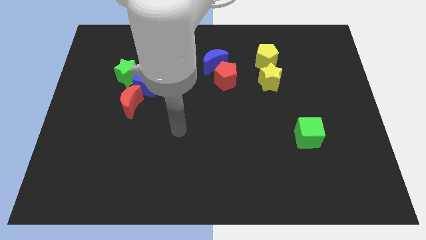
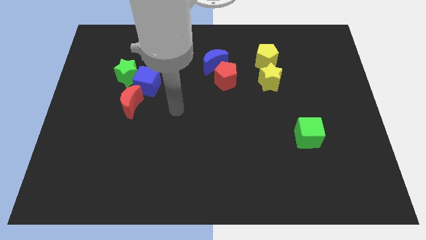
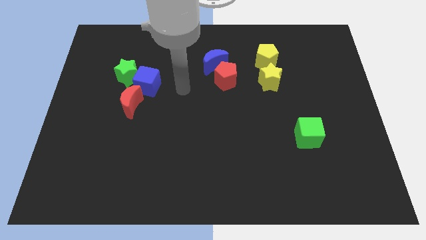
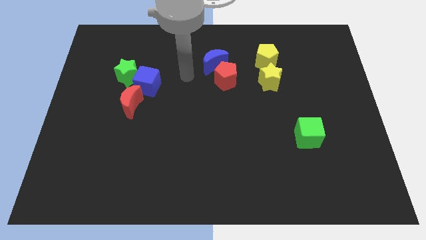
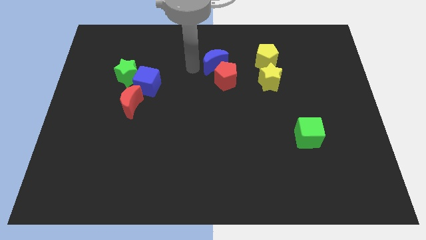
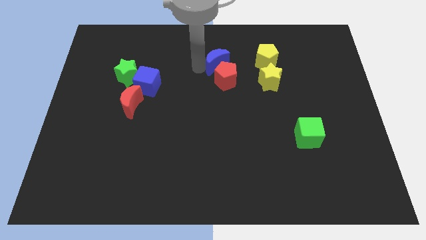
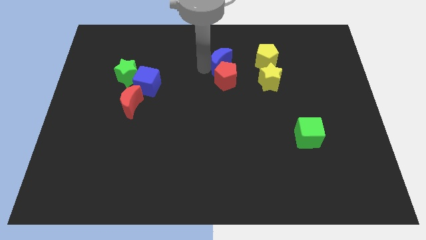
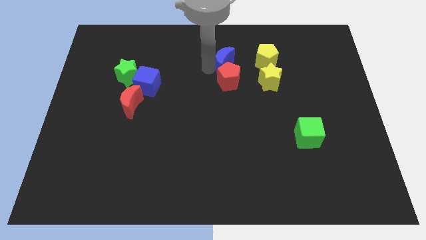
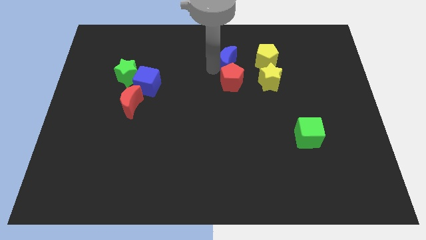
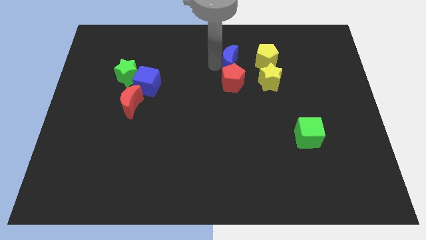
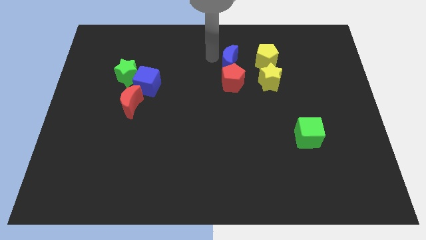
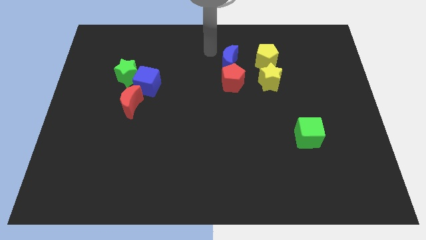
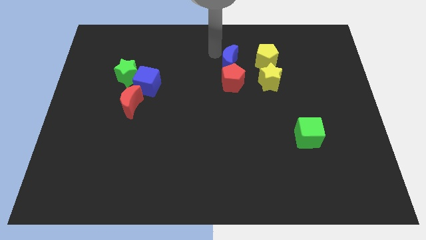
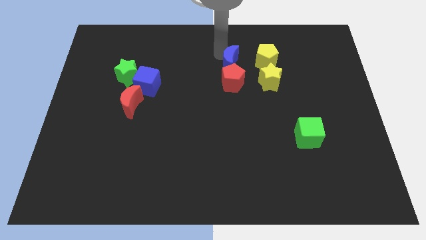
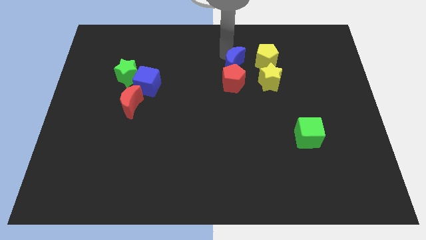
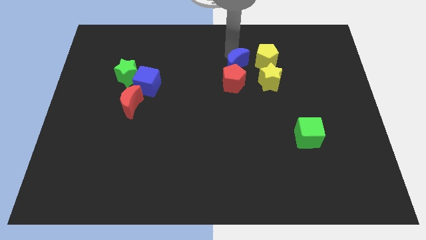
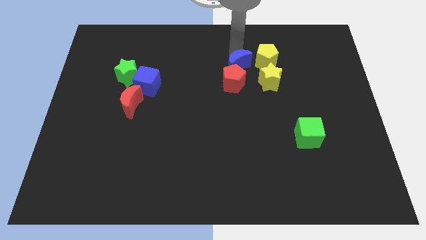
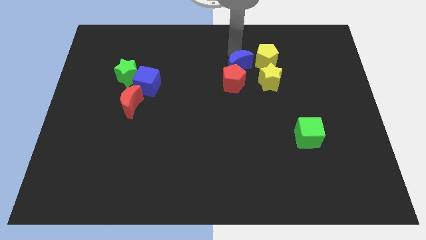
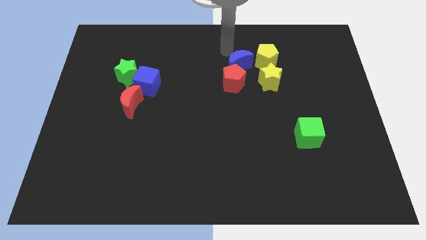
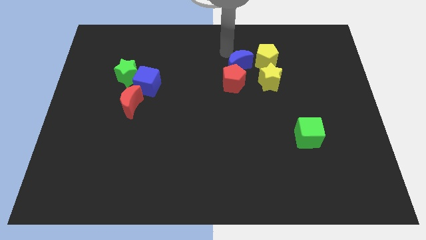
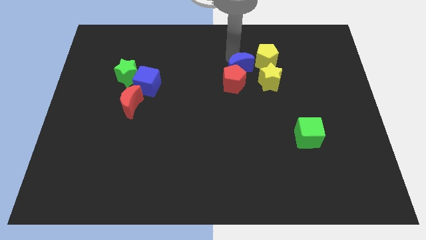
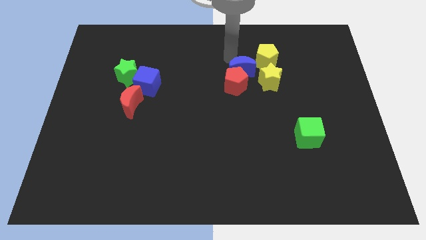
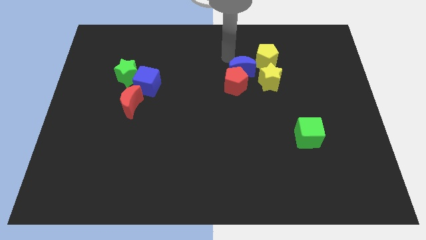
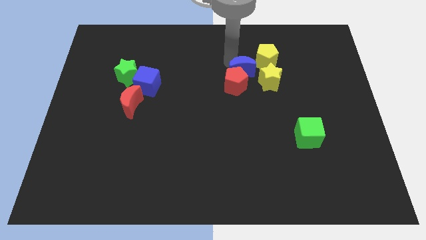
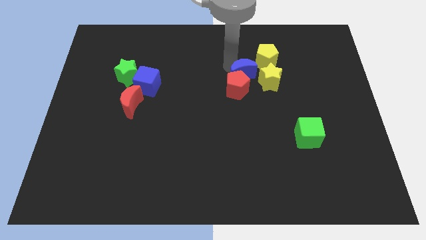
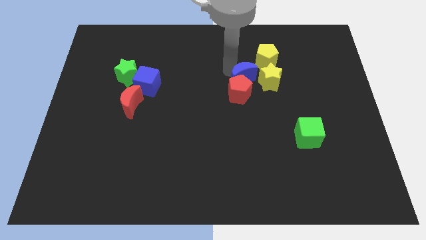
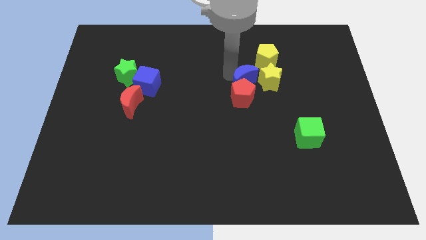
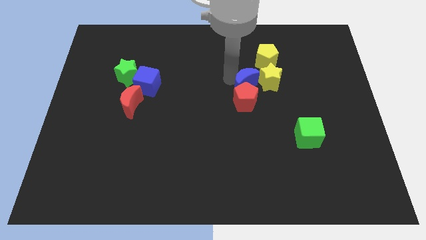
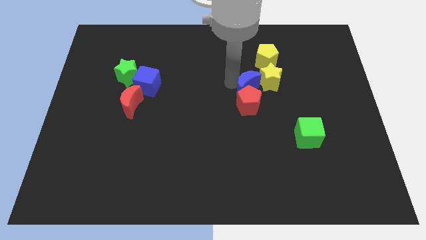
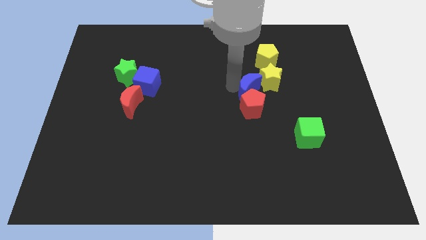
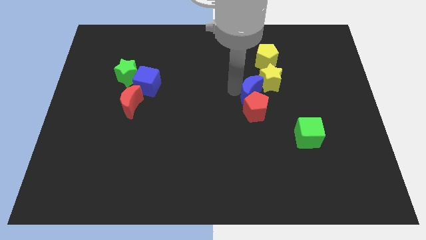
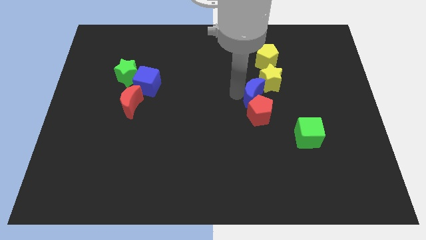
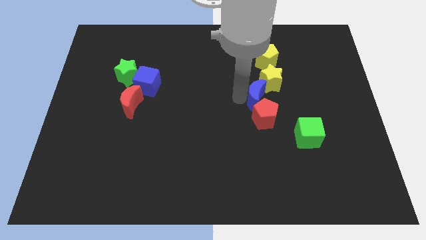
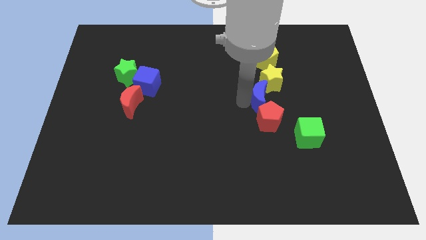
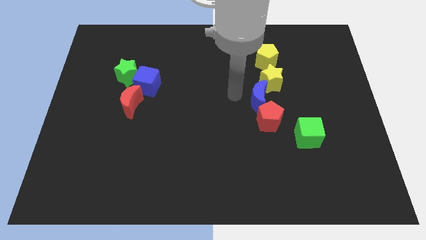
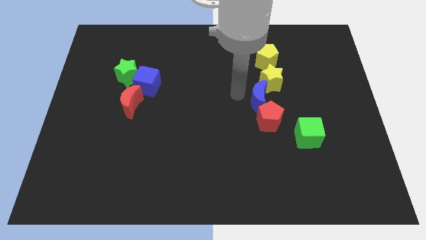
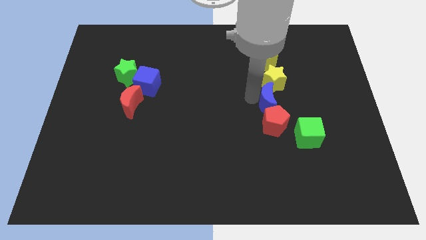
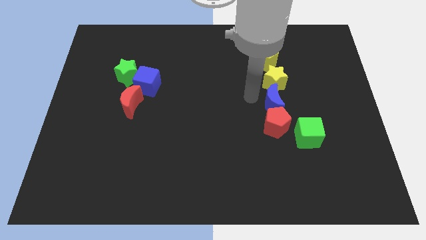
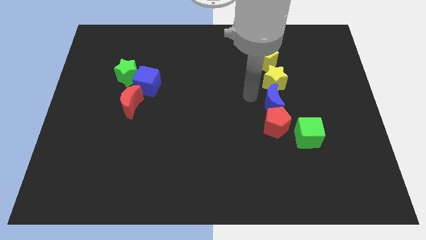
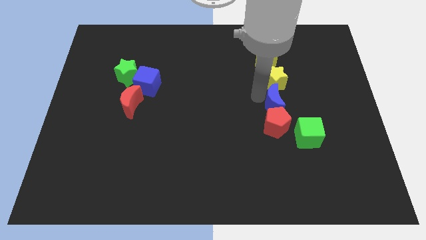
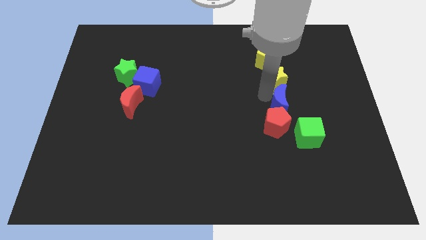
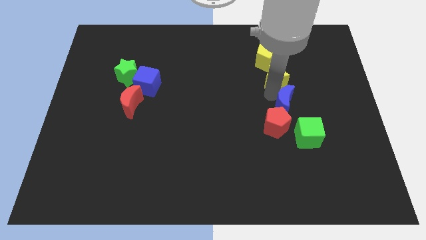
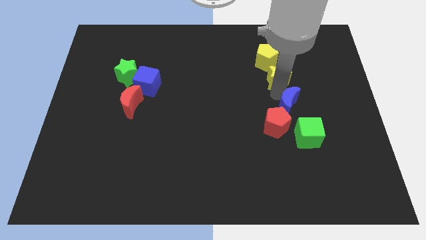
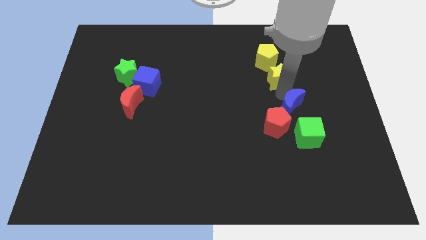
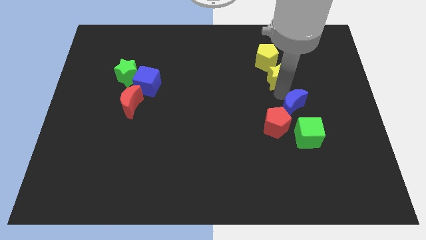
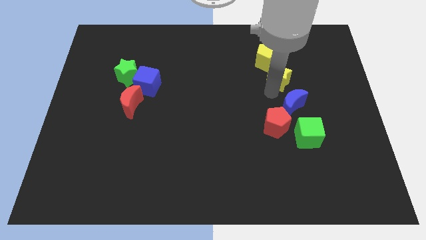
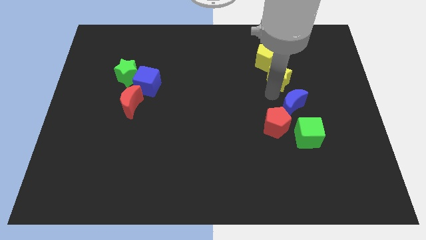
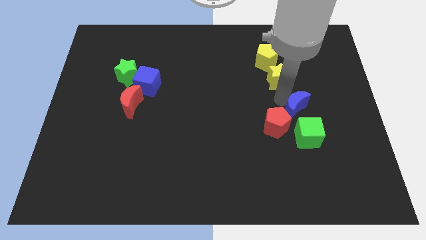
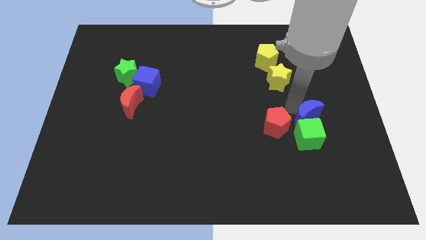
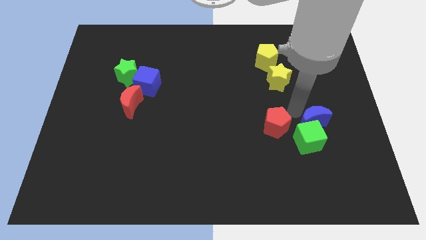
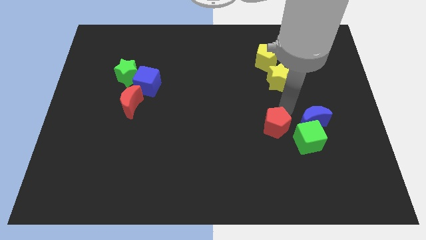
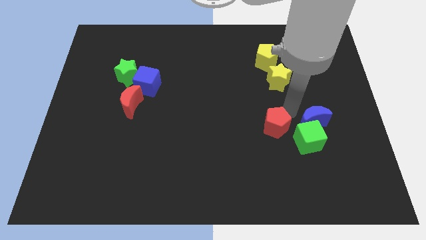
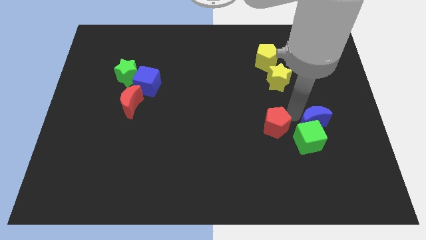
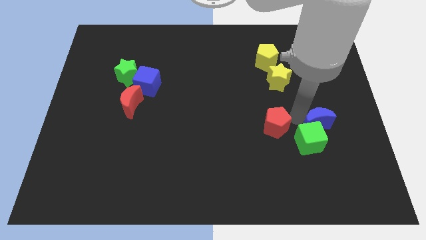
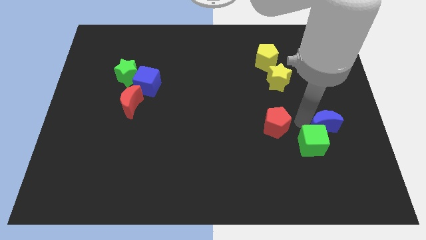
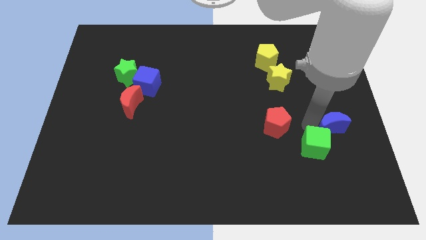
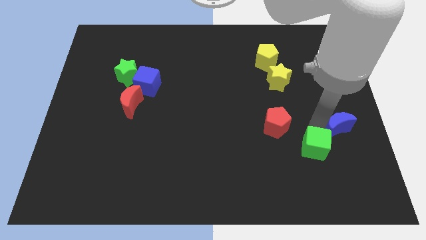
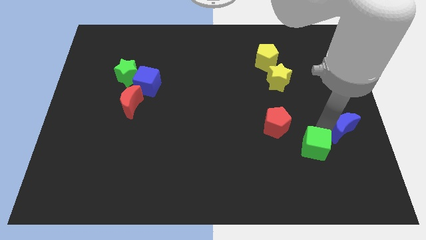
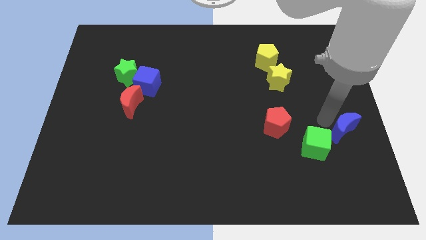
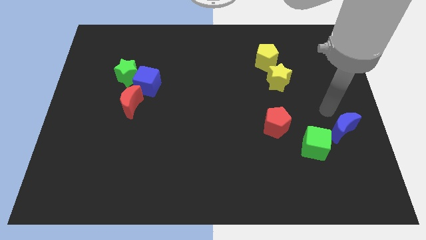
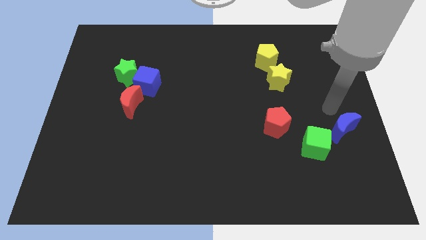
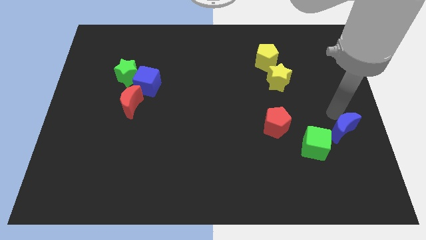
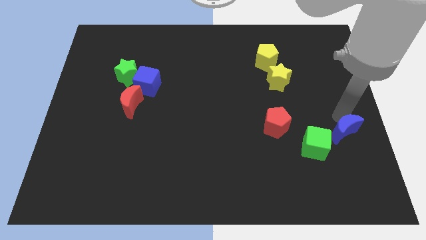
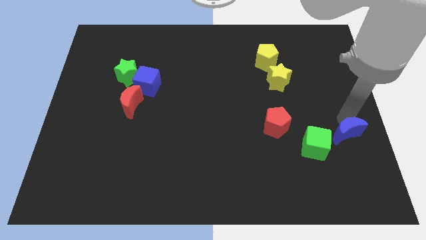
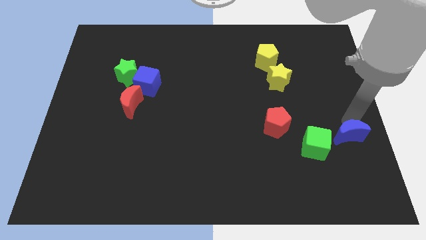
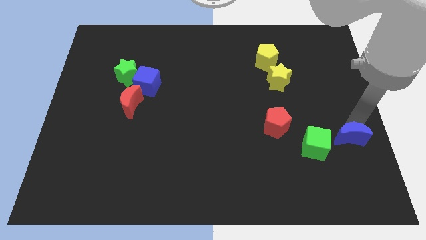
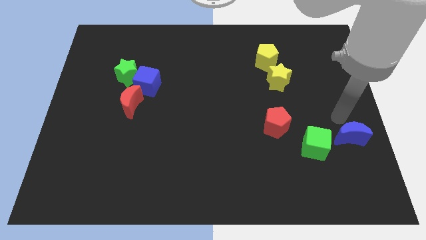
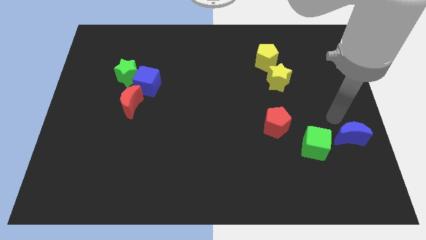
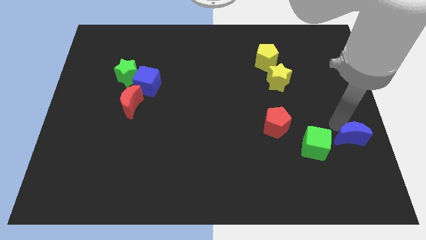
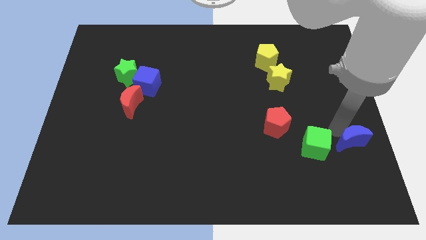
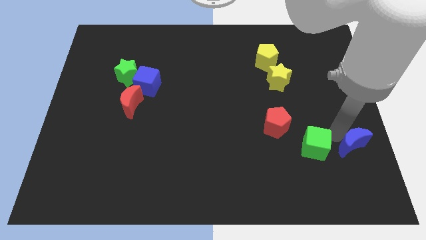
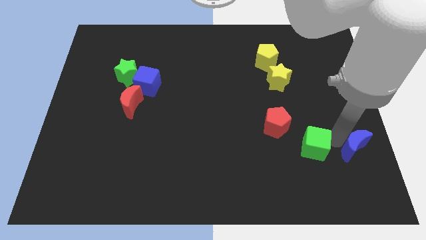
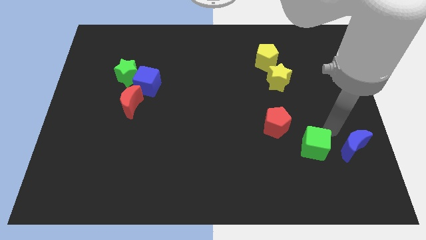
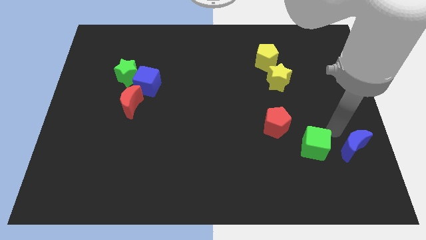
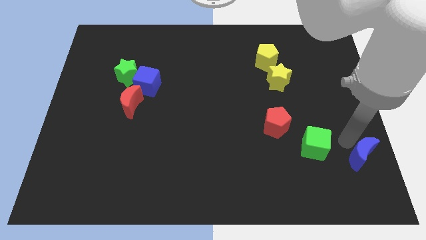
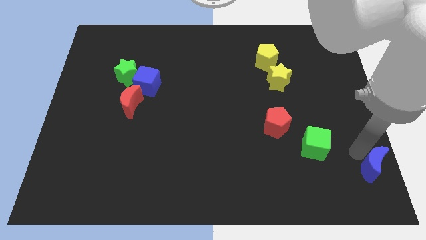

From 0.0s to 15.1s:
move the blue moon to the bottom right corner
